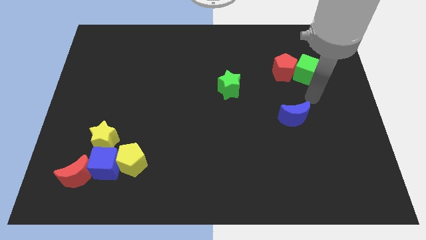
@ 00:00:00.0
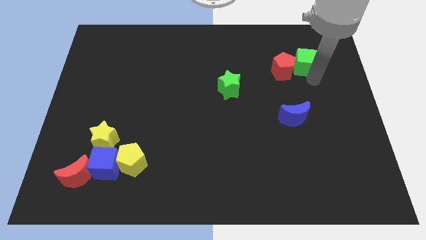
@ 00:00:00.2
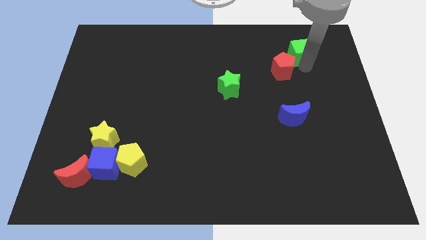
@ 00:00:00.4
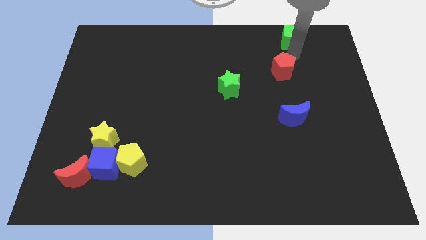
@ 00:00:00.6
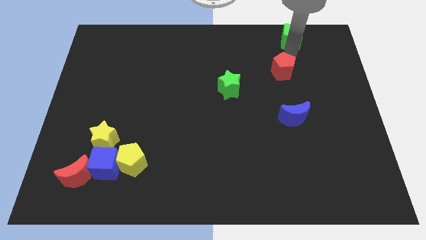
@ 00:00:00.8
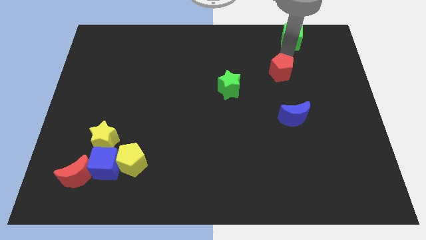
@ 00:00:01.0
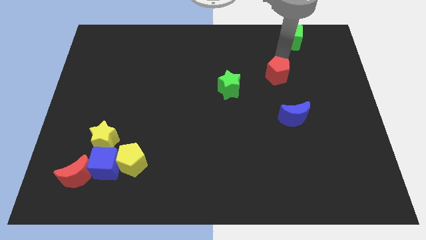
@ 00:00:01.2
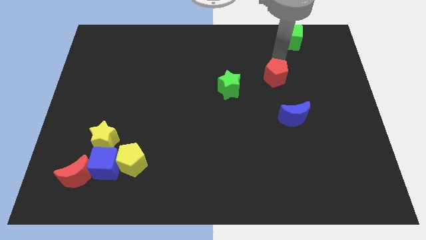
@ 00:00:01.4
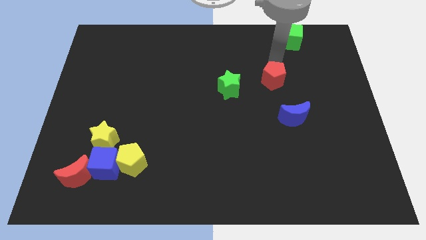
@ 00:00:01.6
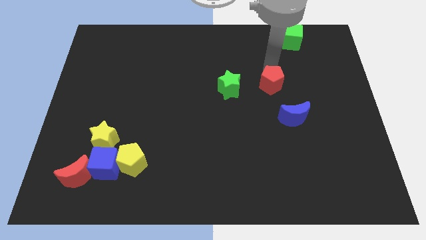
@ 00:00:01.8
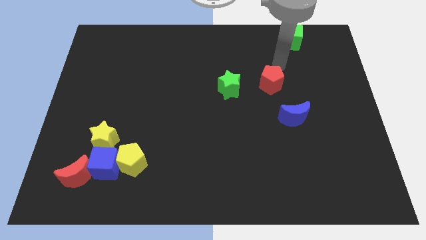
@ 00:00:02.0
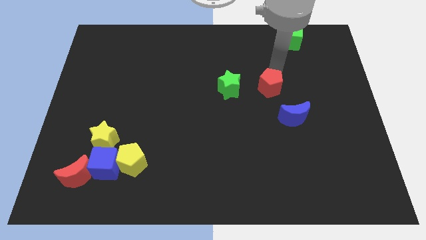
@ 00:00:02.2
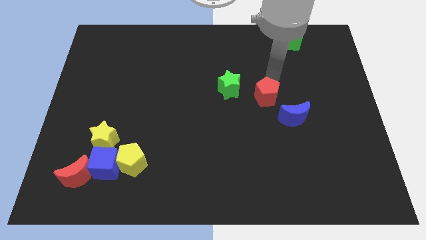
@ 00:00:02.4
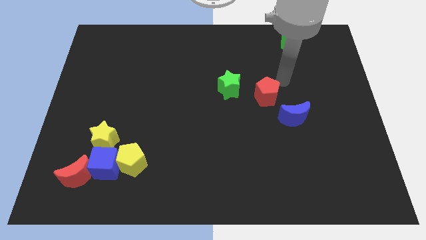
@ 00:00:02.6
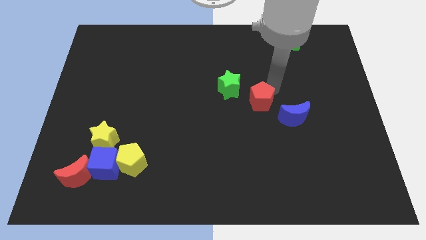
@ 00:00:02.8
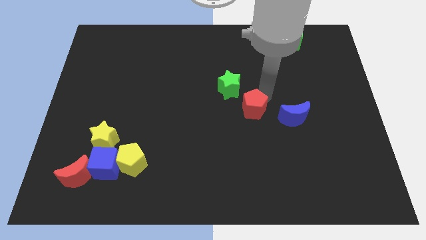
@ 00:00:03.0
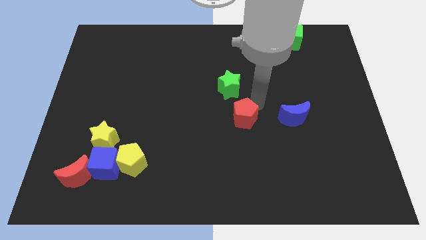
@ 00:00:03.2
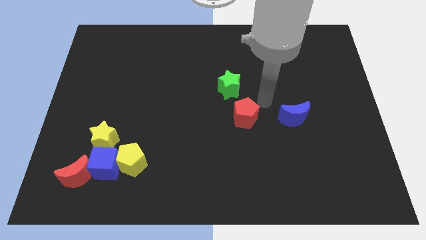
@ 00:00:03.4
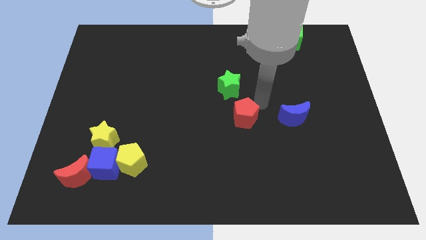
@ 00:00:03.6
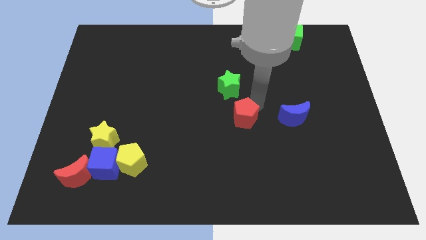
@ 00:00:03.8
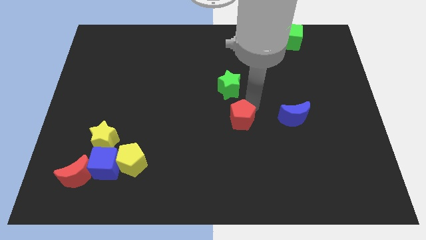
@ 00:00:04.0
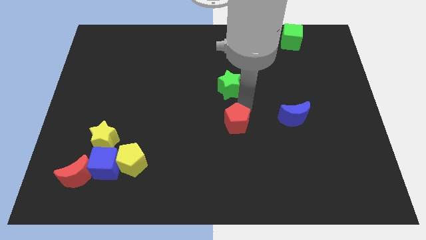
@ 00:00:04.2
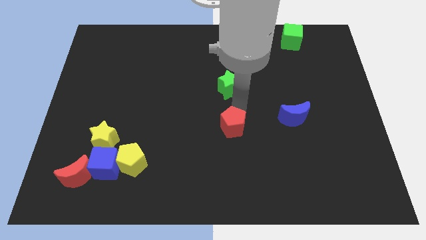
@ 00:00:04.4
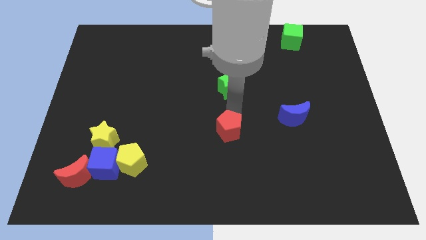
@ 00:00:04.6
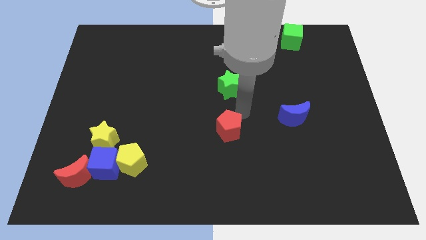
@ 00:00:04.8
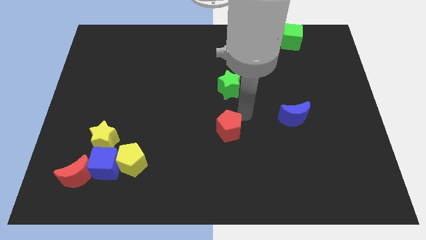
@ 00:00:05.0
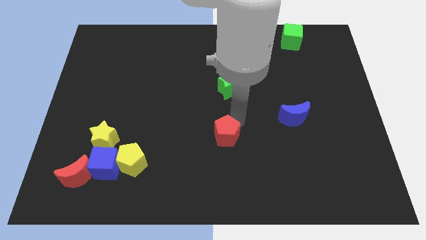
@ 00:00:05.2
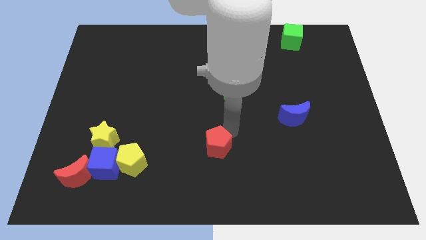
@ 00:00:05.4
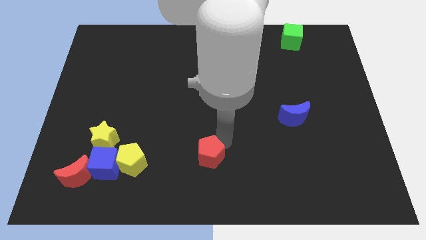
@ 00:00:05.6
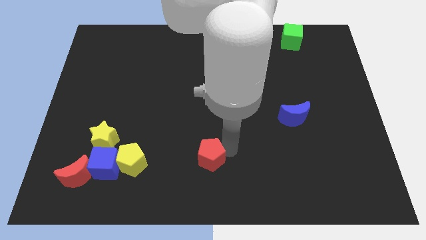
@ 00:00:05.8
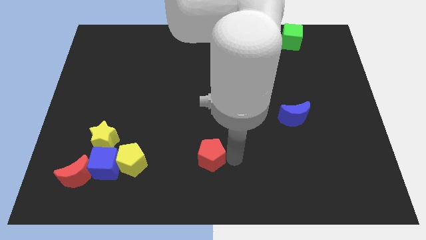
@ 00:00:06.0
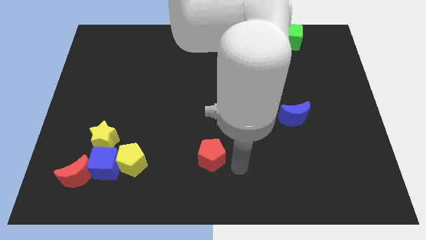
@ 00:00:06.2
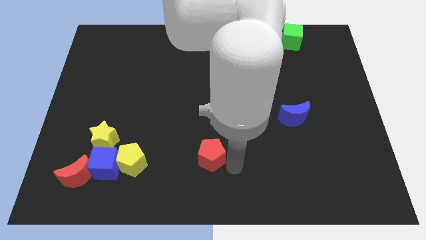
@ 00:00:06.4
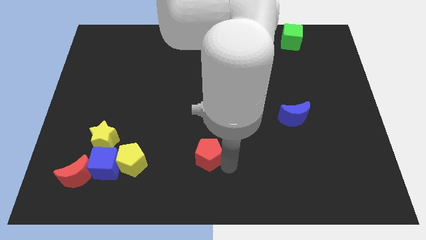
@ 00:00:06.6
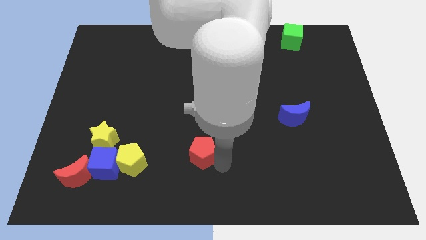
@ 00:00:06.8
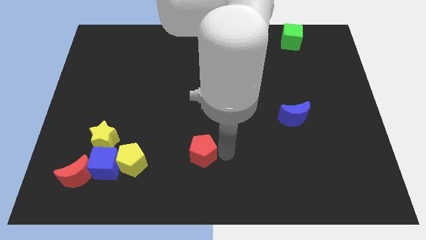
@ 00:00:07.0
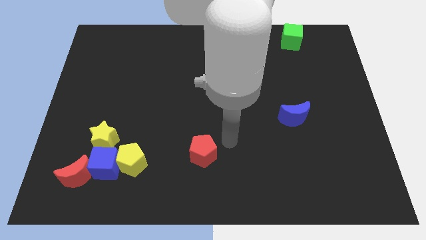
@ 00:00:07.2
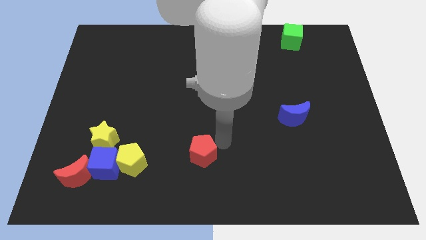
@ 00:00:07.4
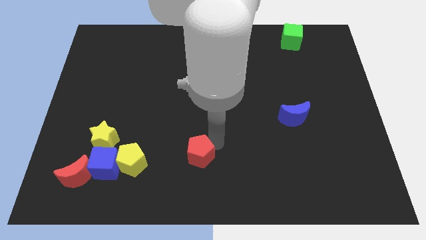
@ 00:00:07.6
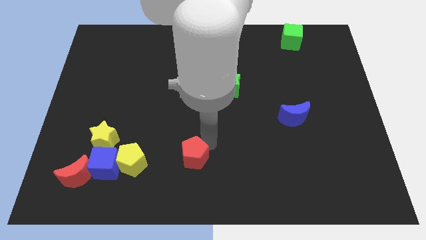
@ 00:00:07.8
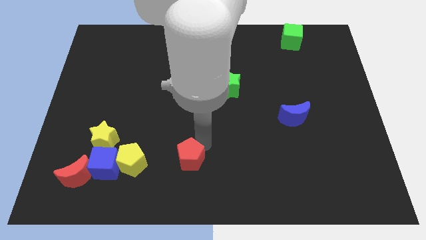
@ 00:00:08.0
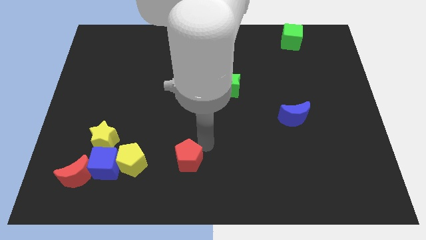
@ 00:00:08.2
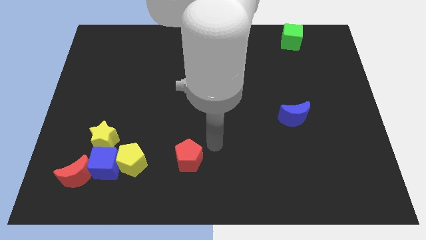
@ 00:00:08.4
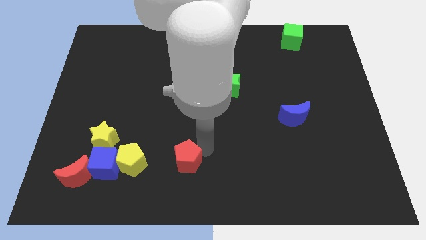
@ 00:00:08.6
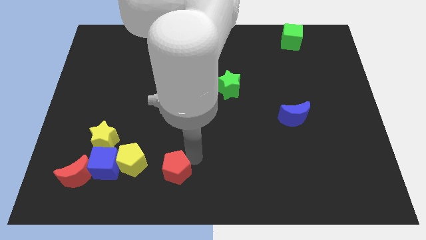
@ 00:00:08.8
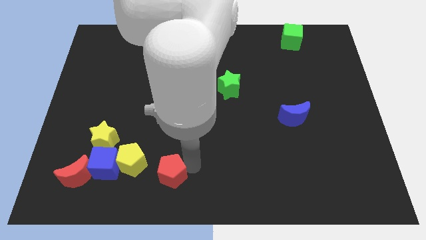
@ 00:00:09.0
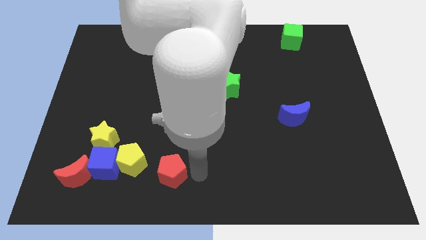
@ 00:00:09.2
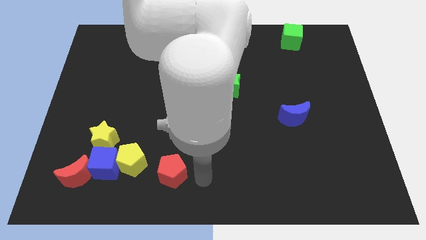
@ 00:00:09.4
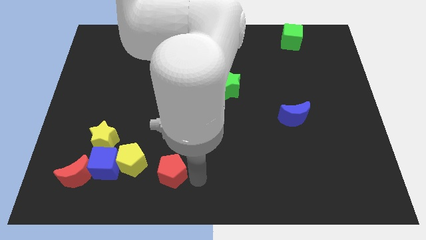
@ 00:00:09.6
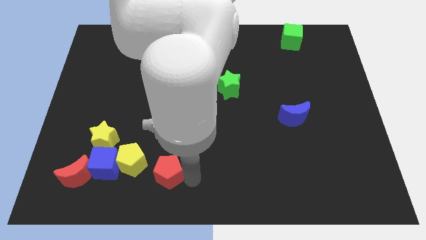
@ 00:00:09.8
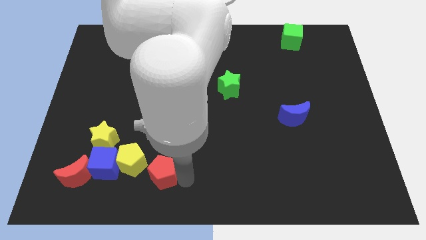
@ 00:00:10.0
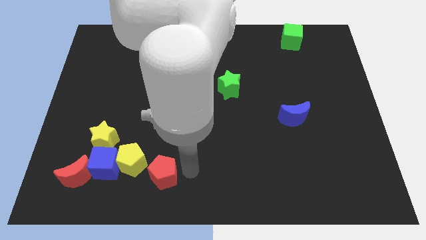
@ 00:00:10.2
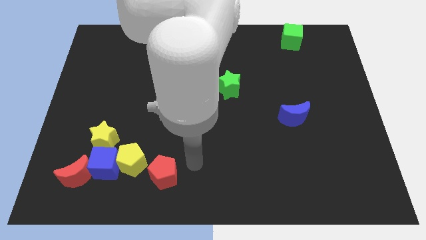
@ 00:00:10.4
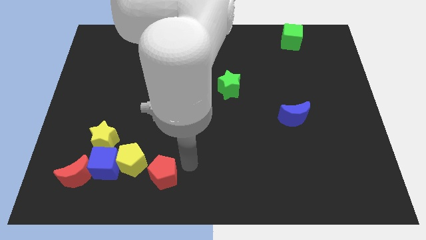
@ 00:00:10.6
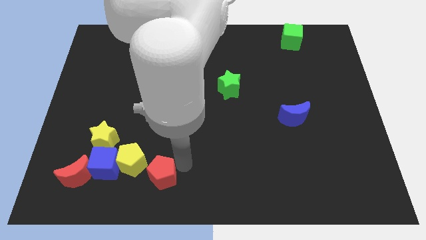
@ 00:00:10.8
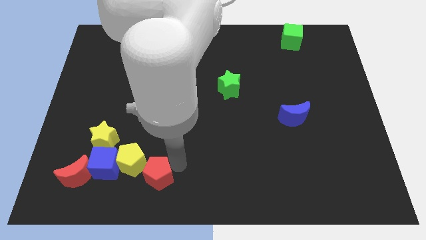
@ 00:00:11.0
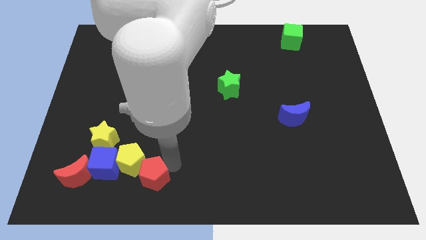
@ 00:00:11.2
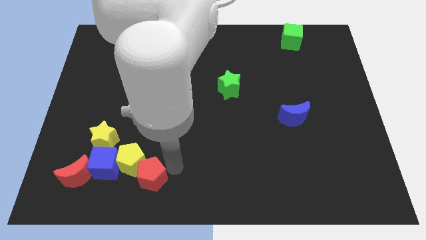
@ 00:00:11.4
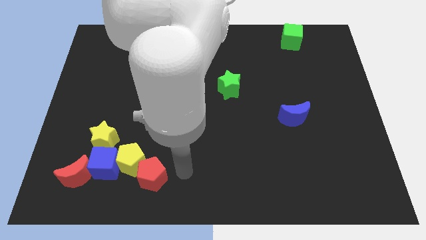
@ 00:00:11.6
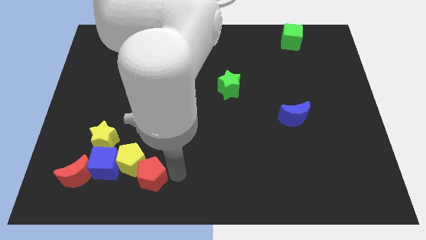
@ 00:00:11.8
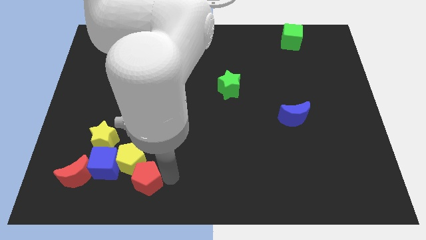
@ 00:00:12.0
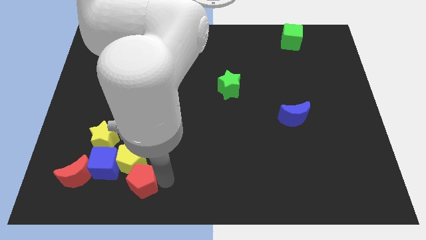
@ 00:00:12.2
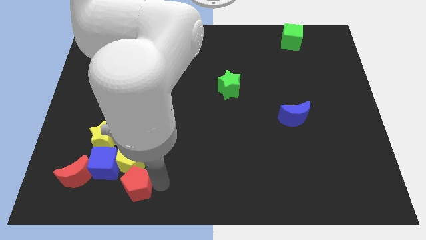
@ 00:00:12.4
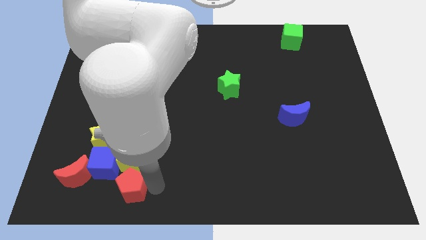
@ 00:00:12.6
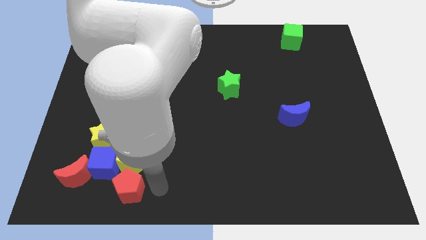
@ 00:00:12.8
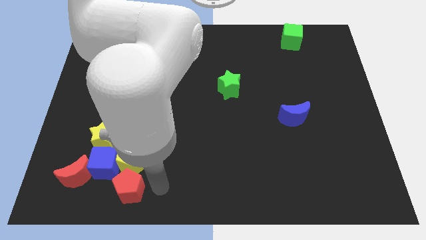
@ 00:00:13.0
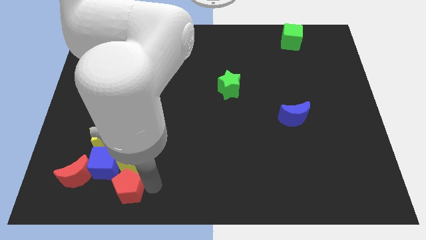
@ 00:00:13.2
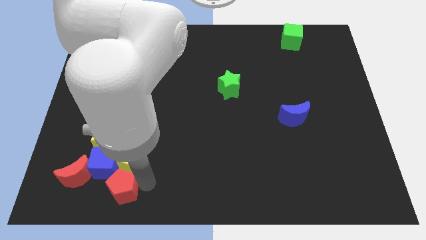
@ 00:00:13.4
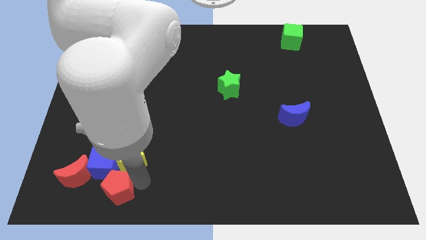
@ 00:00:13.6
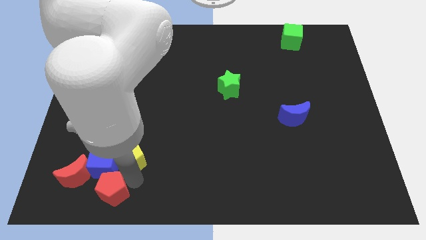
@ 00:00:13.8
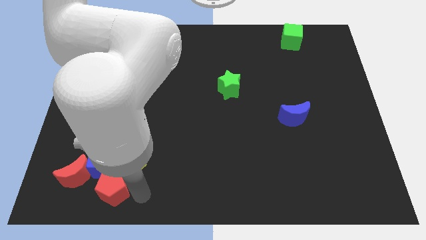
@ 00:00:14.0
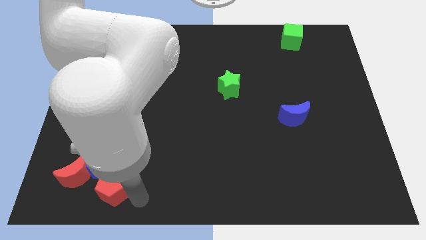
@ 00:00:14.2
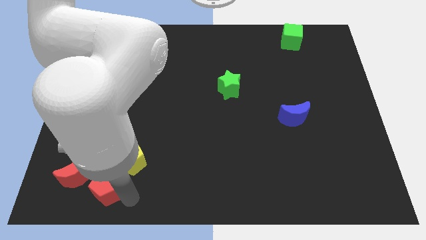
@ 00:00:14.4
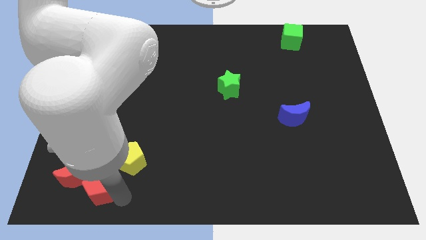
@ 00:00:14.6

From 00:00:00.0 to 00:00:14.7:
push the red pentagon to the red moon
